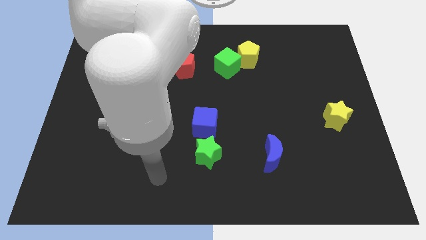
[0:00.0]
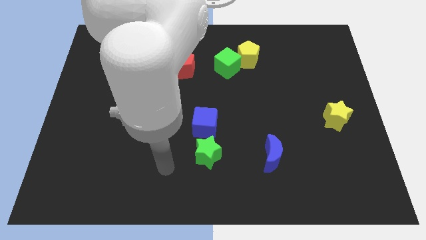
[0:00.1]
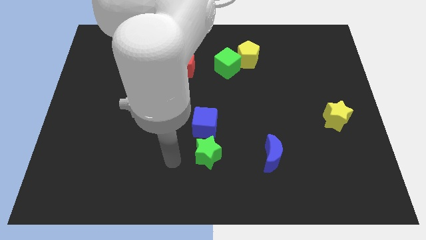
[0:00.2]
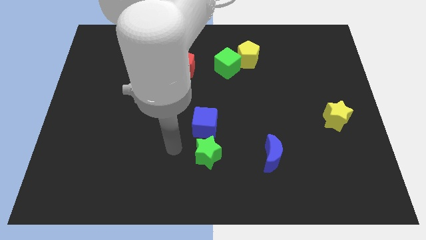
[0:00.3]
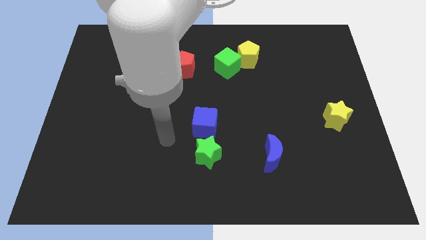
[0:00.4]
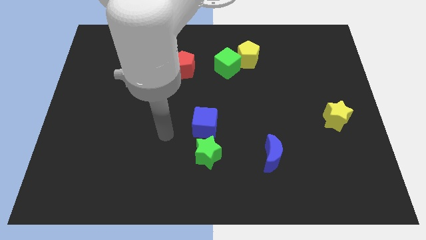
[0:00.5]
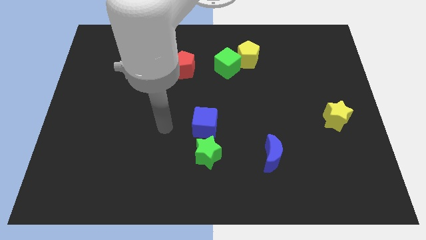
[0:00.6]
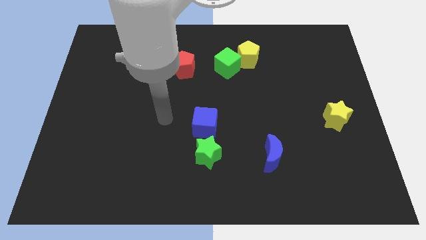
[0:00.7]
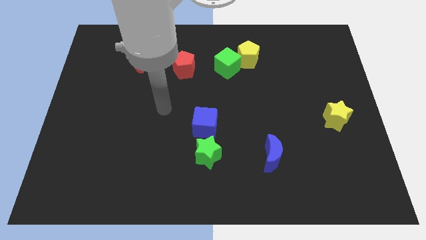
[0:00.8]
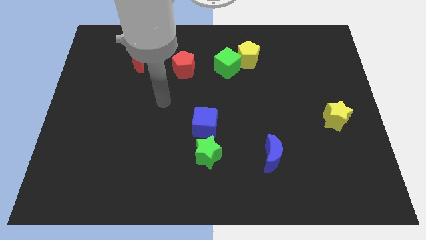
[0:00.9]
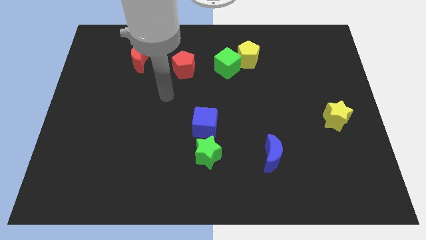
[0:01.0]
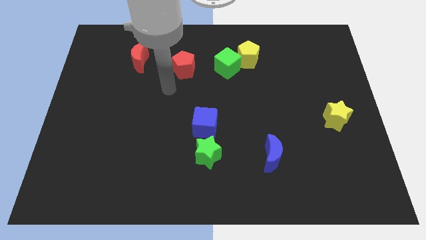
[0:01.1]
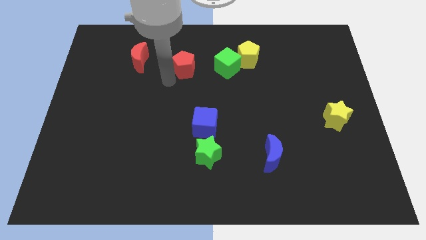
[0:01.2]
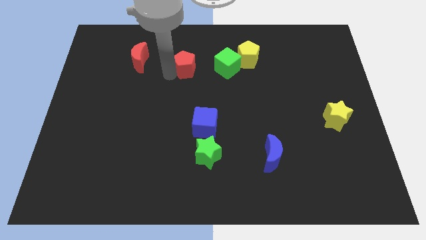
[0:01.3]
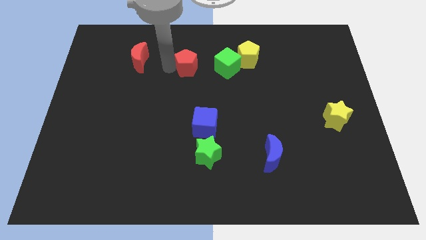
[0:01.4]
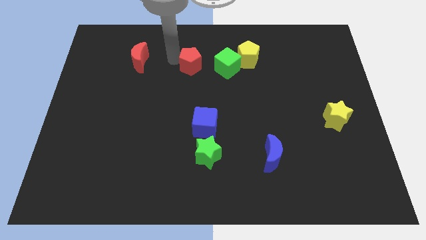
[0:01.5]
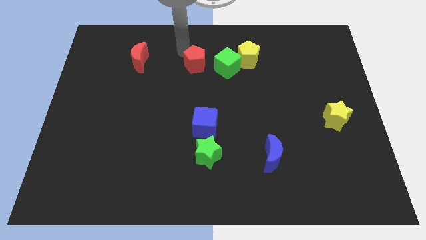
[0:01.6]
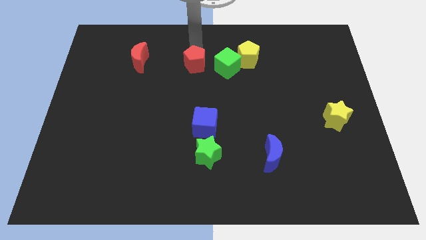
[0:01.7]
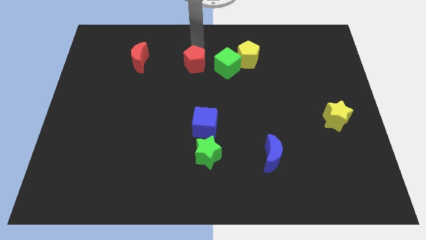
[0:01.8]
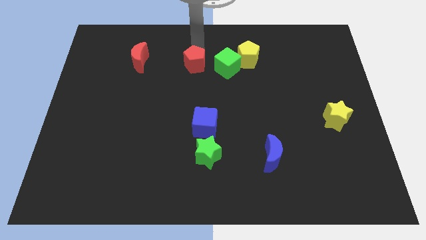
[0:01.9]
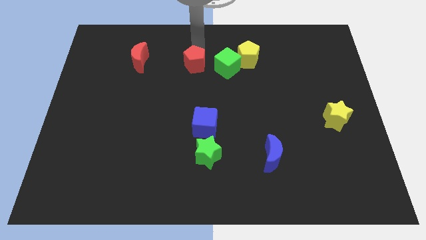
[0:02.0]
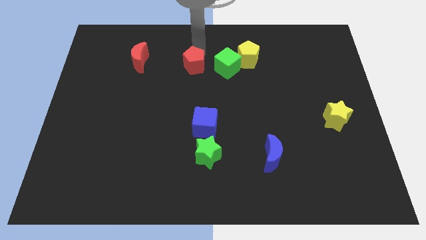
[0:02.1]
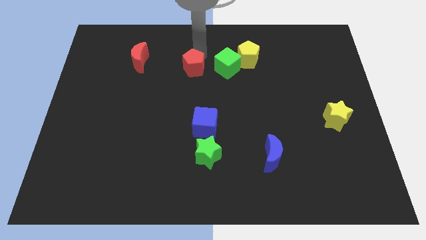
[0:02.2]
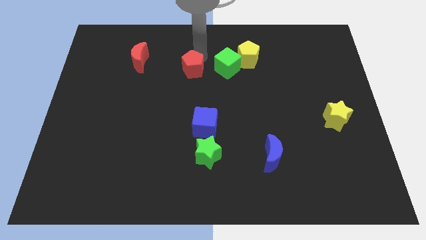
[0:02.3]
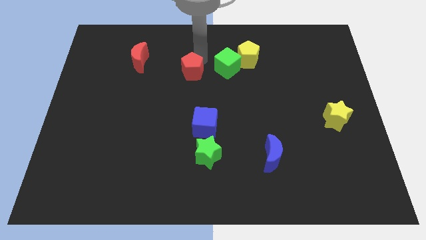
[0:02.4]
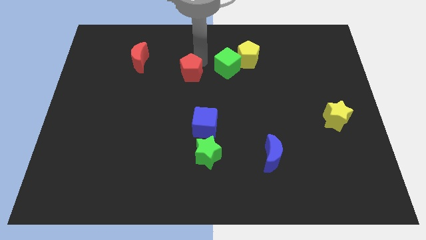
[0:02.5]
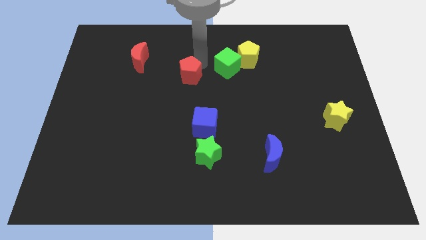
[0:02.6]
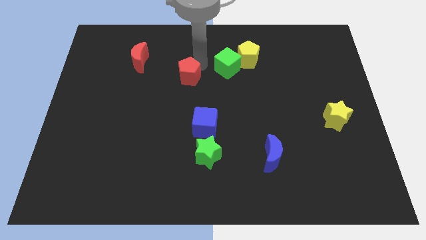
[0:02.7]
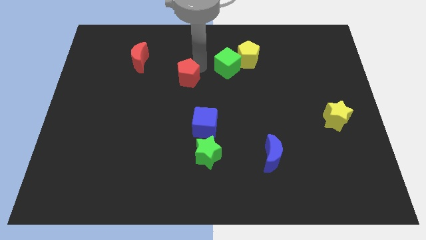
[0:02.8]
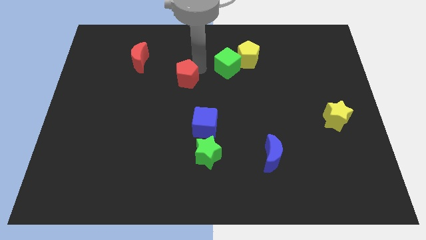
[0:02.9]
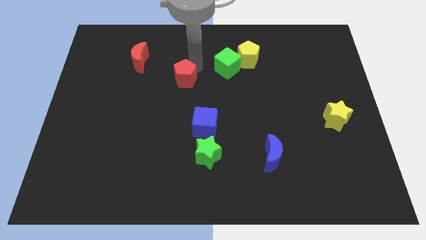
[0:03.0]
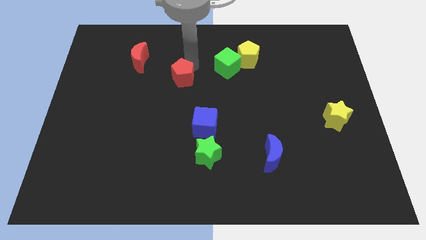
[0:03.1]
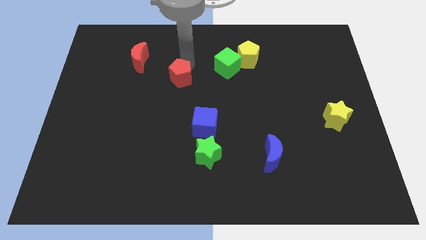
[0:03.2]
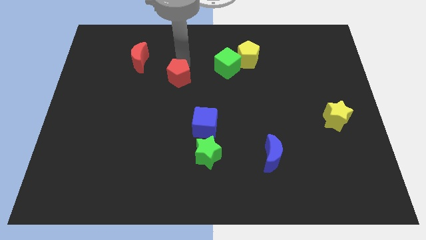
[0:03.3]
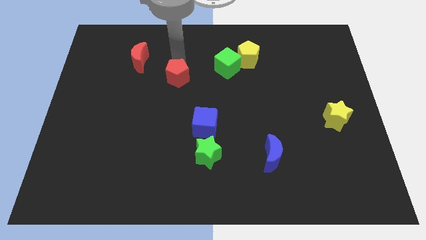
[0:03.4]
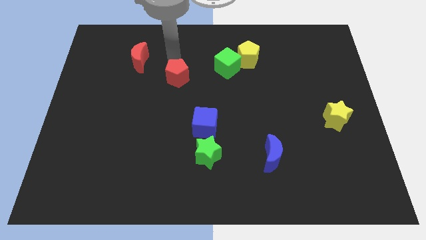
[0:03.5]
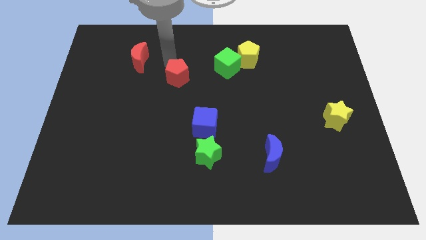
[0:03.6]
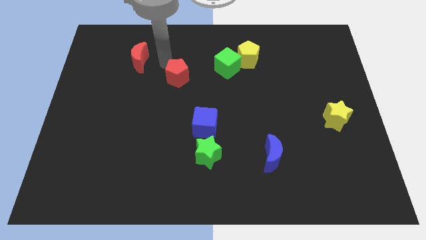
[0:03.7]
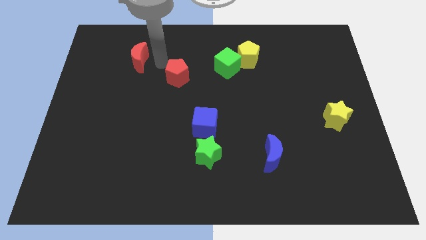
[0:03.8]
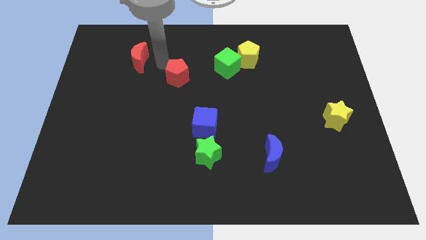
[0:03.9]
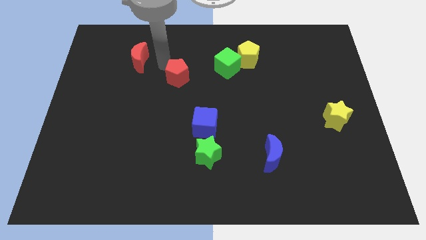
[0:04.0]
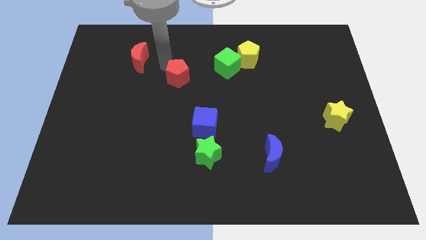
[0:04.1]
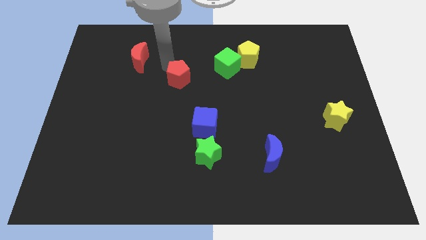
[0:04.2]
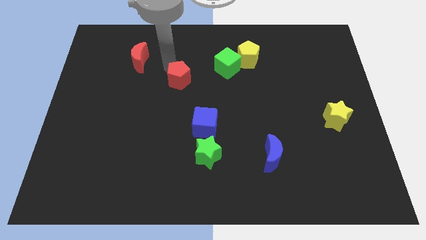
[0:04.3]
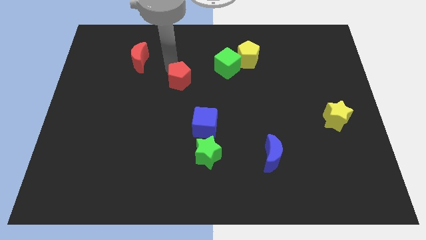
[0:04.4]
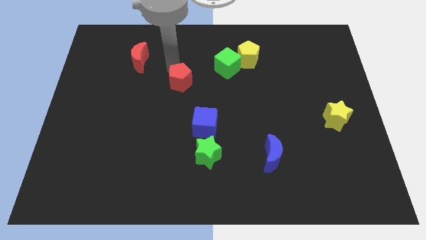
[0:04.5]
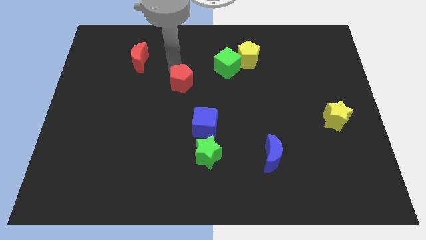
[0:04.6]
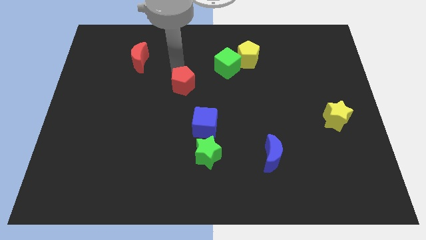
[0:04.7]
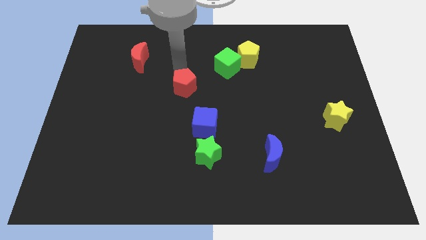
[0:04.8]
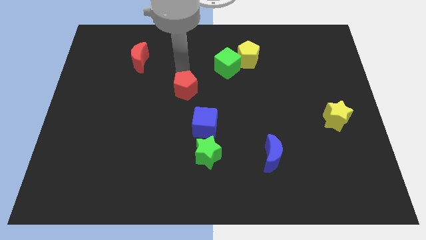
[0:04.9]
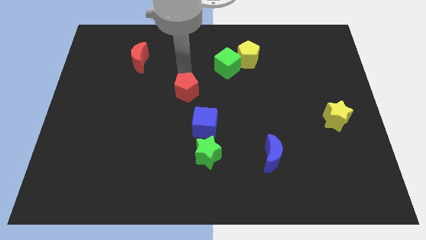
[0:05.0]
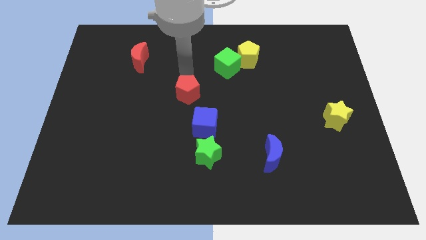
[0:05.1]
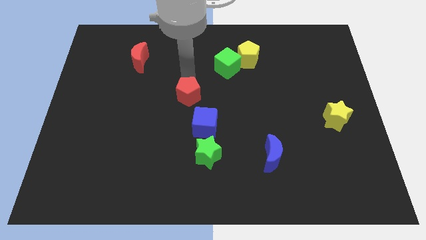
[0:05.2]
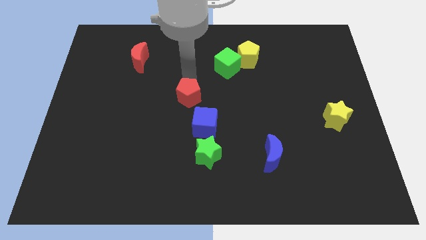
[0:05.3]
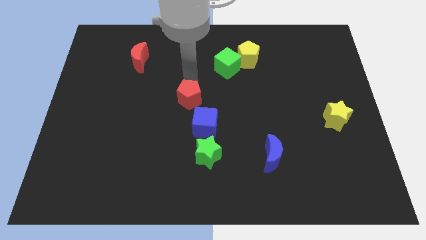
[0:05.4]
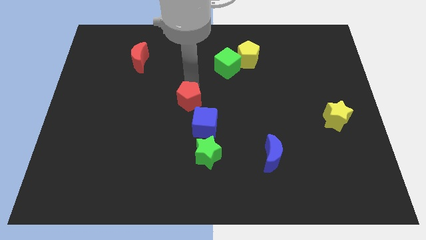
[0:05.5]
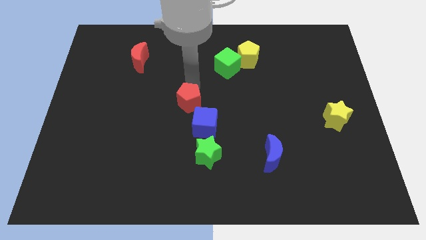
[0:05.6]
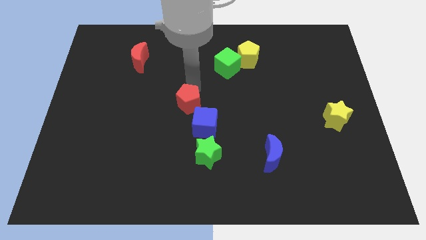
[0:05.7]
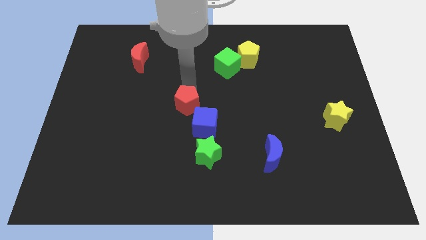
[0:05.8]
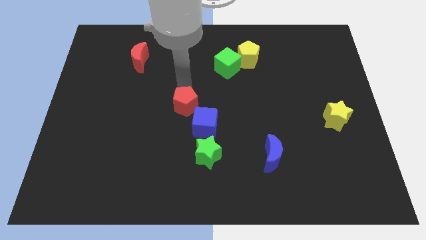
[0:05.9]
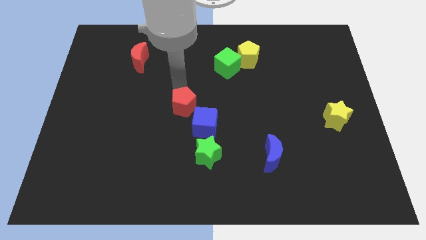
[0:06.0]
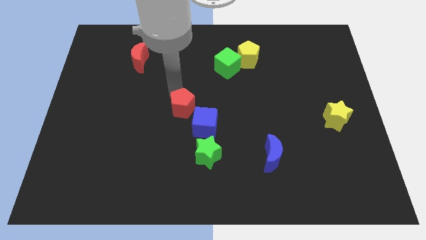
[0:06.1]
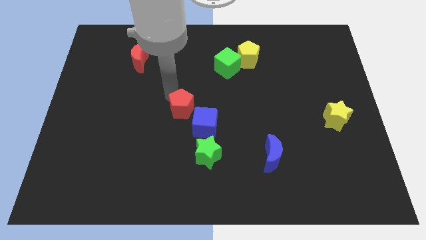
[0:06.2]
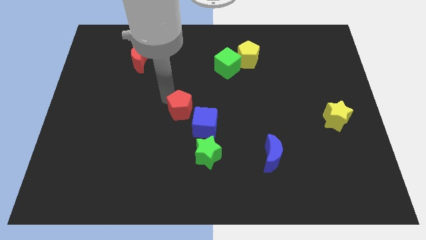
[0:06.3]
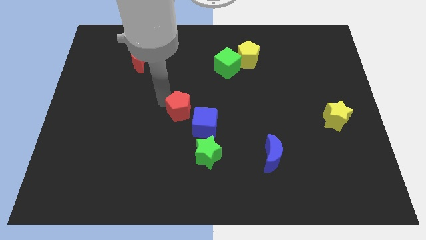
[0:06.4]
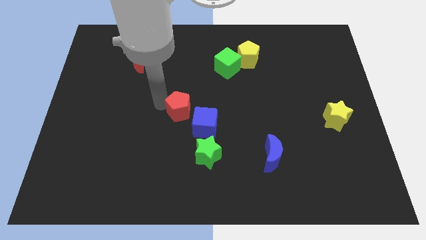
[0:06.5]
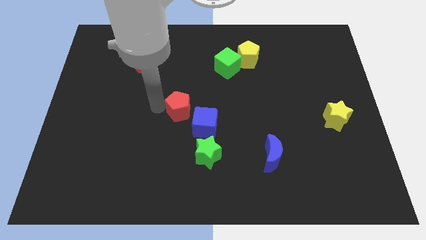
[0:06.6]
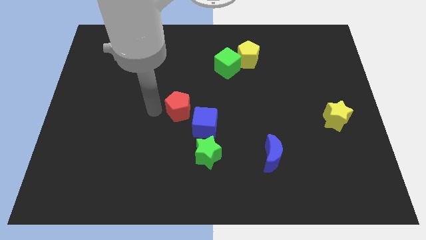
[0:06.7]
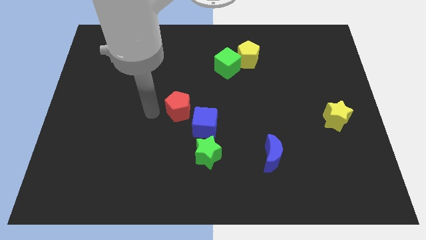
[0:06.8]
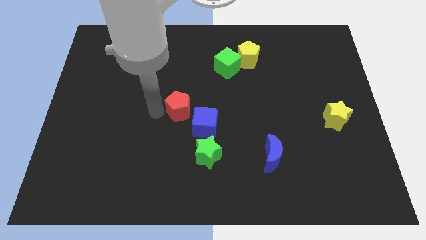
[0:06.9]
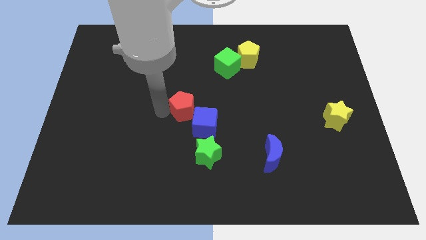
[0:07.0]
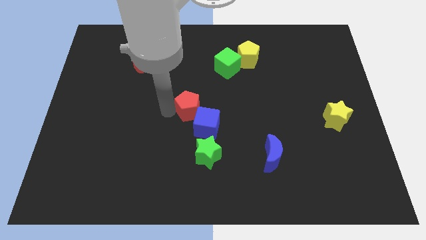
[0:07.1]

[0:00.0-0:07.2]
put the red pentagon next to the blue cube
